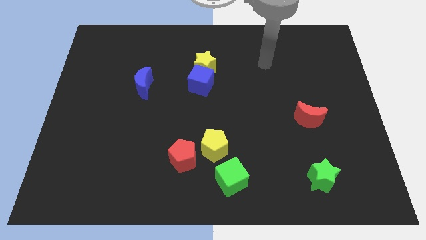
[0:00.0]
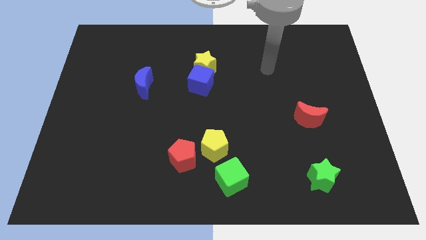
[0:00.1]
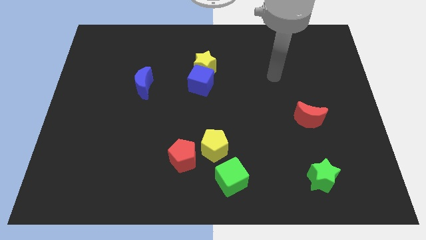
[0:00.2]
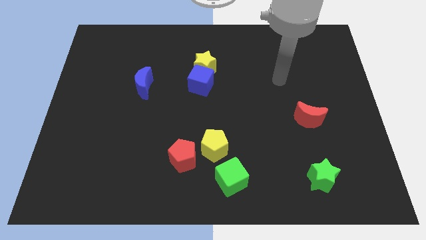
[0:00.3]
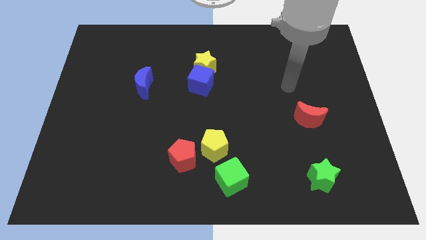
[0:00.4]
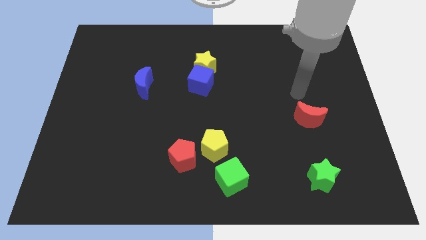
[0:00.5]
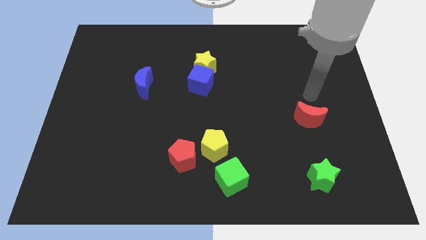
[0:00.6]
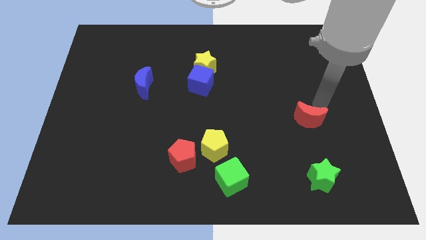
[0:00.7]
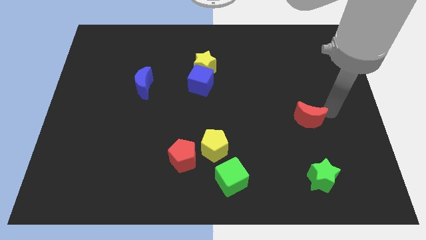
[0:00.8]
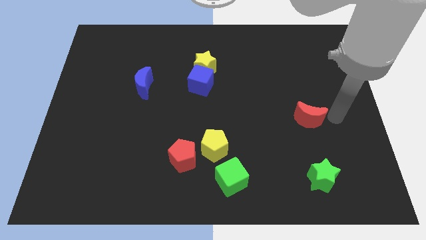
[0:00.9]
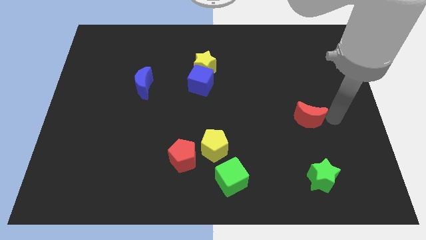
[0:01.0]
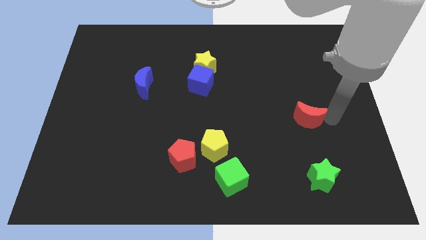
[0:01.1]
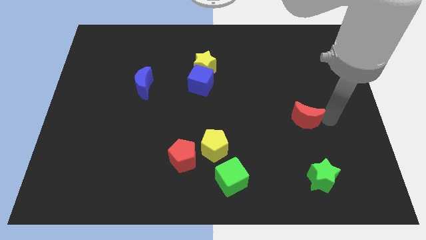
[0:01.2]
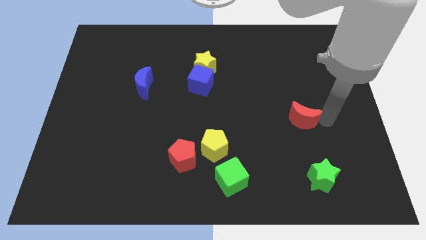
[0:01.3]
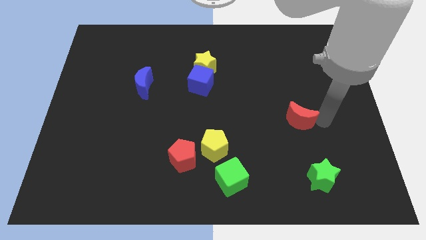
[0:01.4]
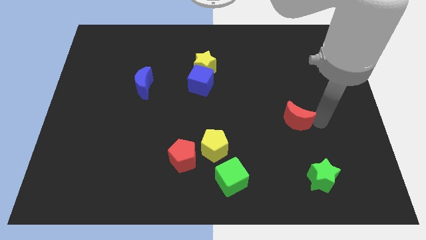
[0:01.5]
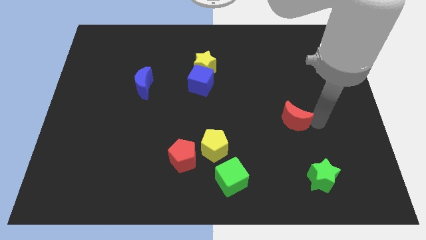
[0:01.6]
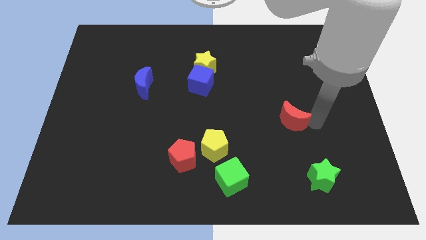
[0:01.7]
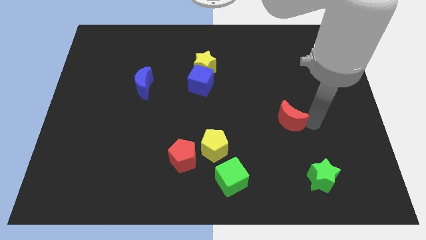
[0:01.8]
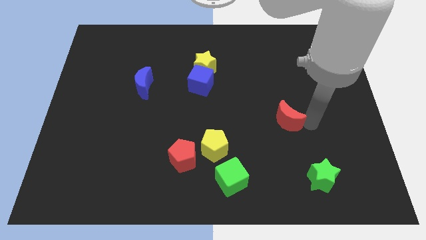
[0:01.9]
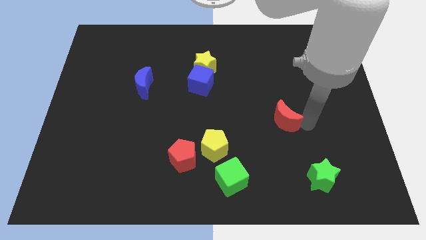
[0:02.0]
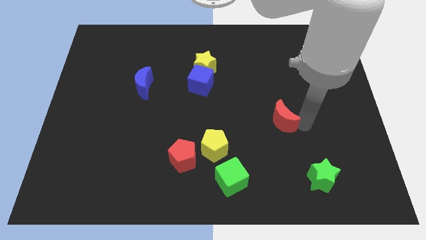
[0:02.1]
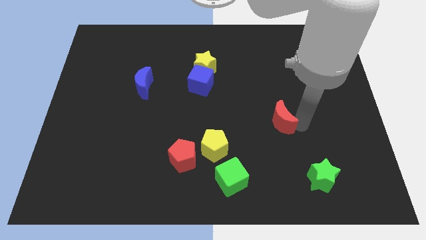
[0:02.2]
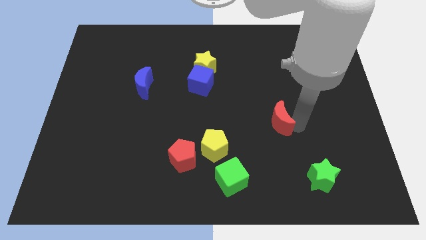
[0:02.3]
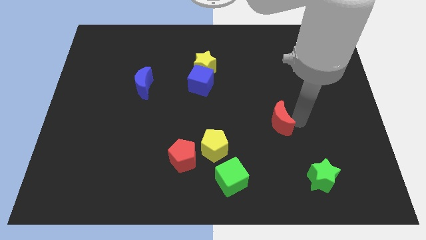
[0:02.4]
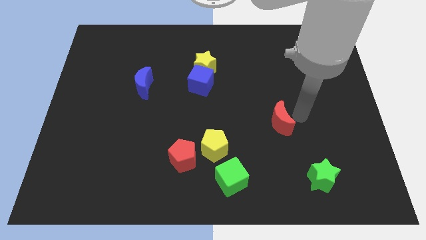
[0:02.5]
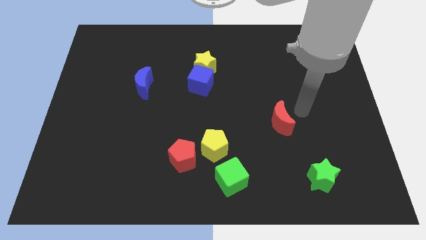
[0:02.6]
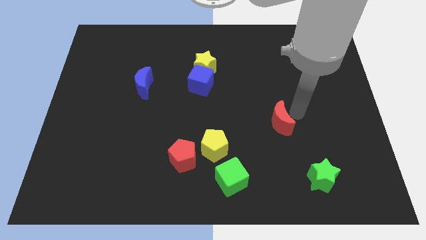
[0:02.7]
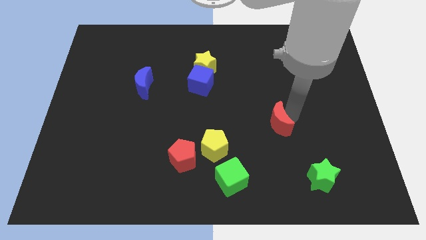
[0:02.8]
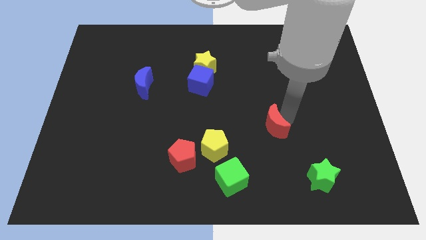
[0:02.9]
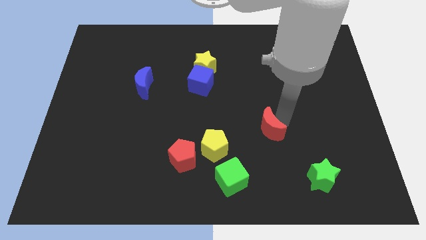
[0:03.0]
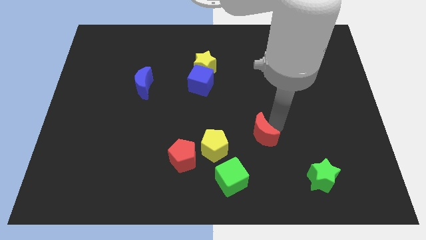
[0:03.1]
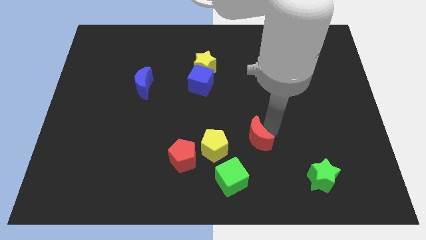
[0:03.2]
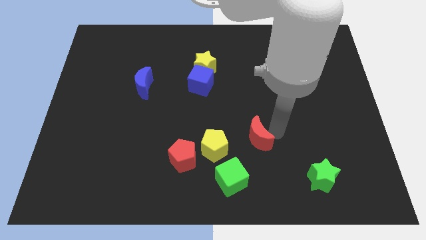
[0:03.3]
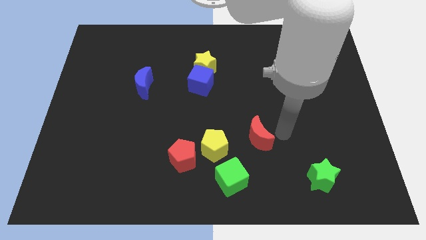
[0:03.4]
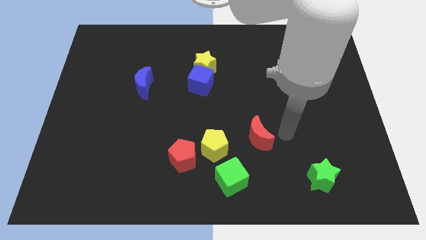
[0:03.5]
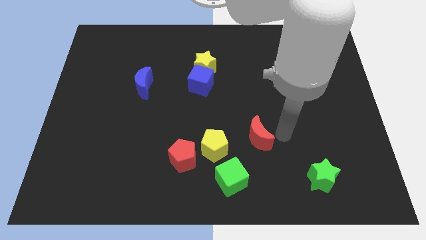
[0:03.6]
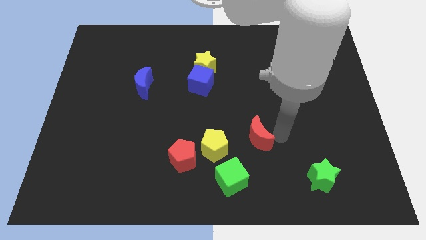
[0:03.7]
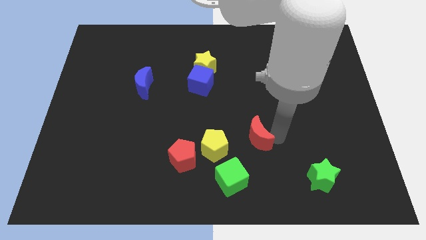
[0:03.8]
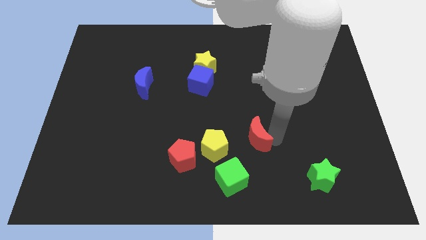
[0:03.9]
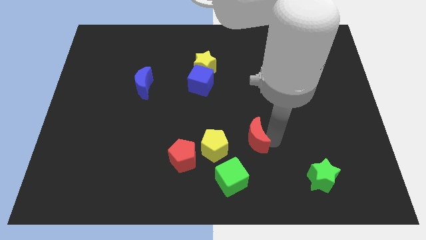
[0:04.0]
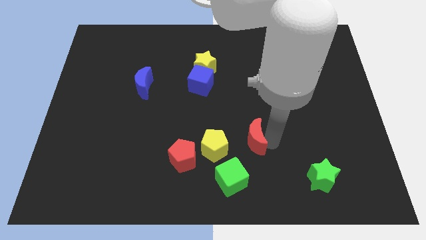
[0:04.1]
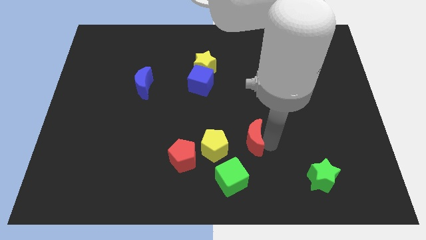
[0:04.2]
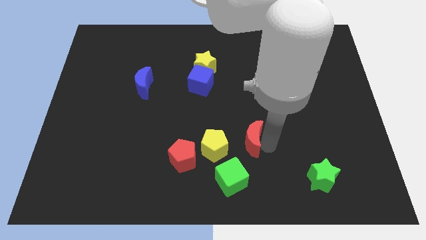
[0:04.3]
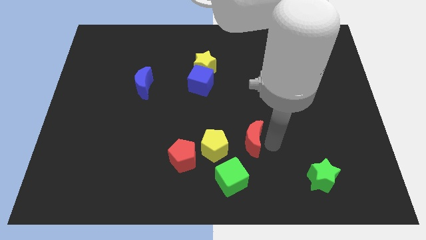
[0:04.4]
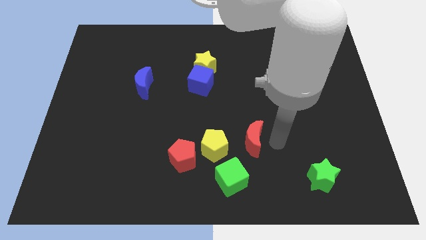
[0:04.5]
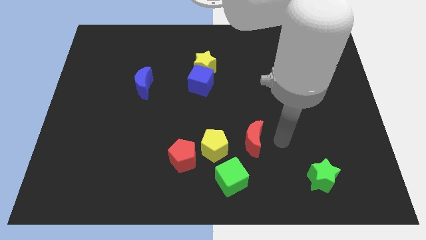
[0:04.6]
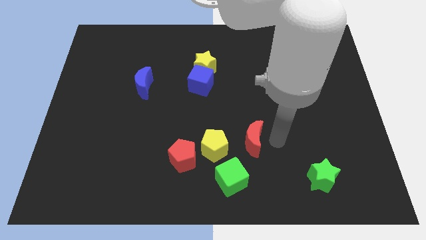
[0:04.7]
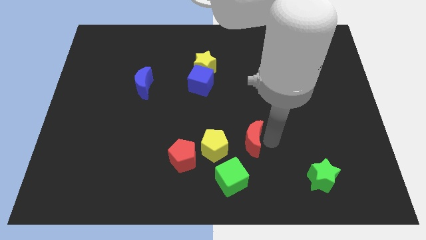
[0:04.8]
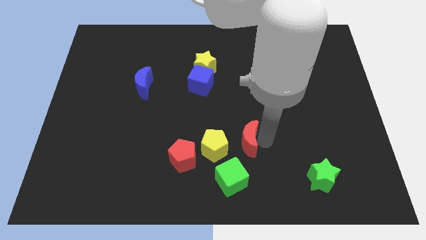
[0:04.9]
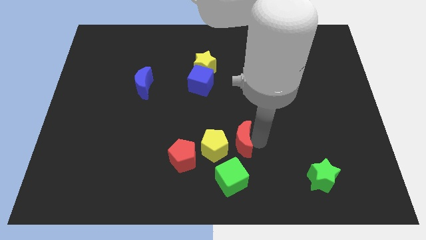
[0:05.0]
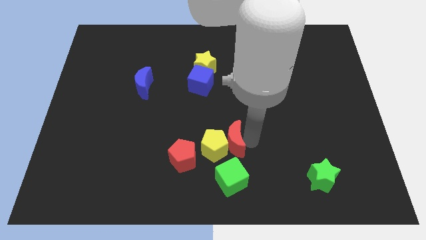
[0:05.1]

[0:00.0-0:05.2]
push the red moon next to the yellow pentagon

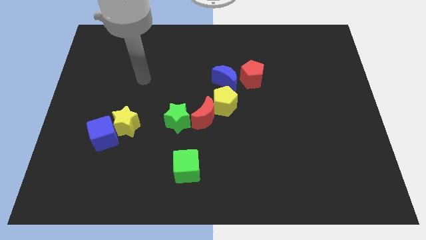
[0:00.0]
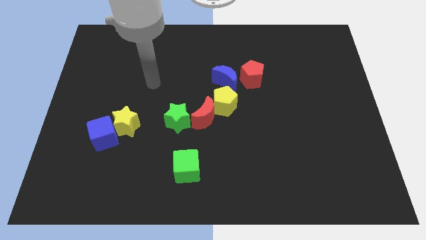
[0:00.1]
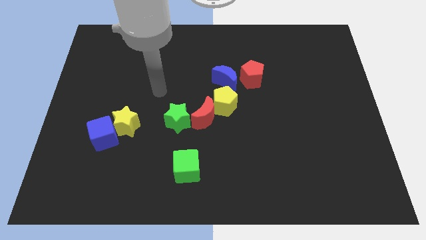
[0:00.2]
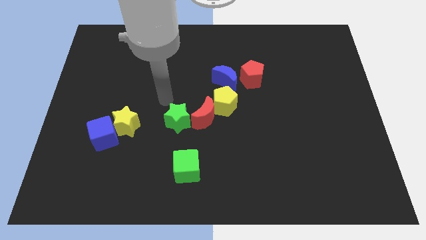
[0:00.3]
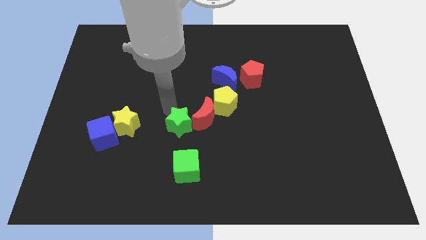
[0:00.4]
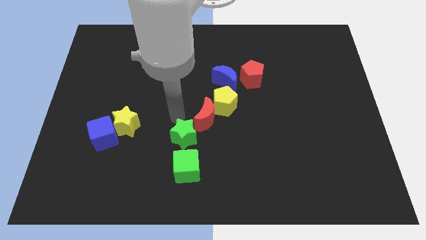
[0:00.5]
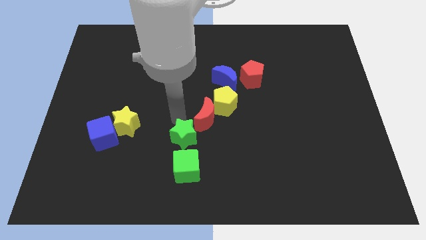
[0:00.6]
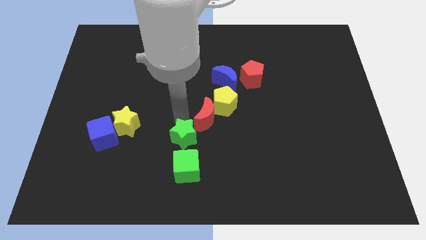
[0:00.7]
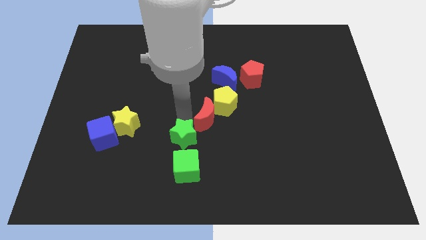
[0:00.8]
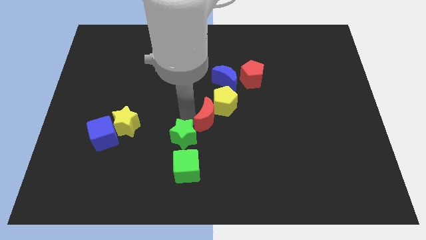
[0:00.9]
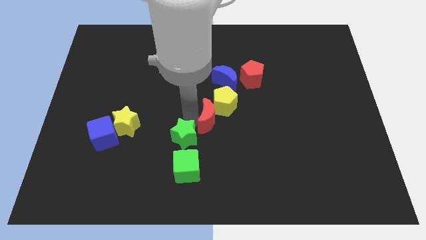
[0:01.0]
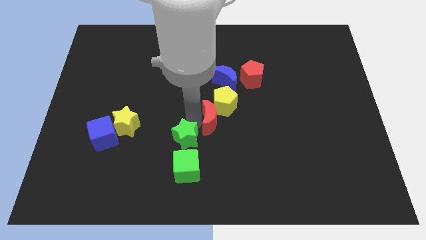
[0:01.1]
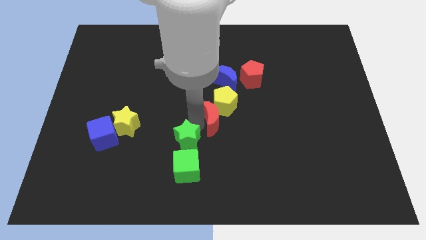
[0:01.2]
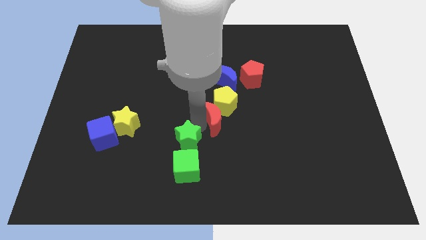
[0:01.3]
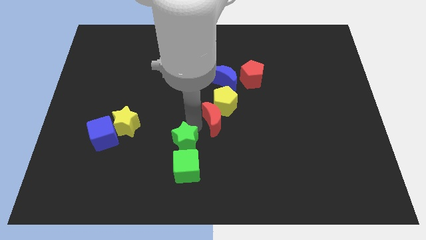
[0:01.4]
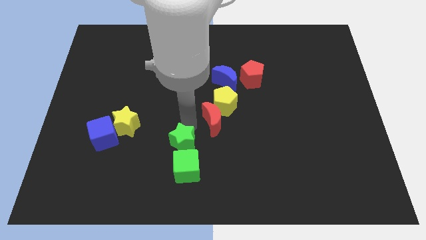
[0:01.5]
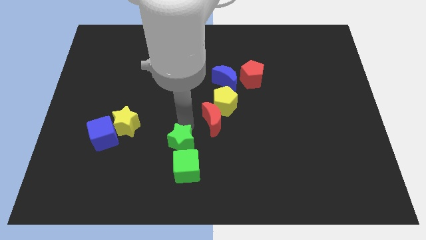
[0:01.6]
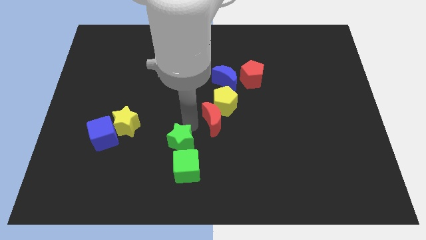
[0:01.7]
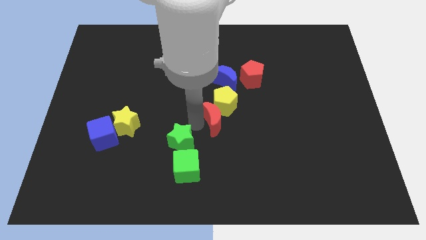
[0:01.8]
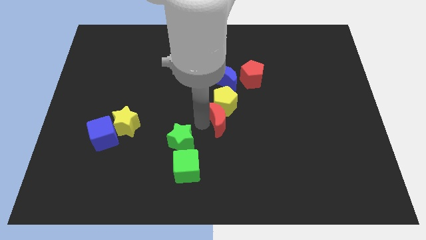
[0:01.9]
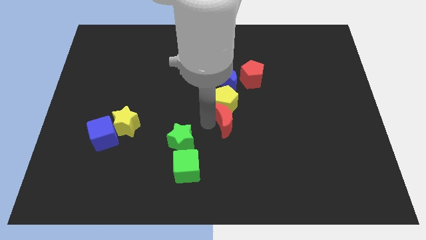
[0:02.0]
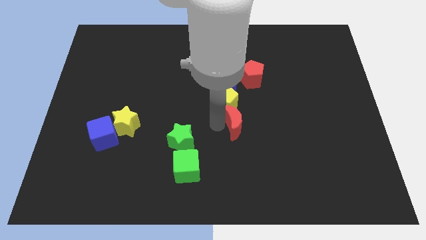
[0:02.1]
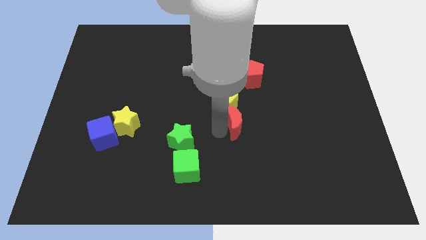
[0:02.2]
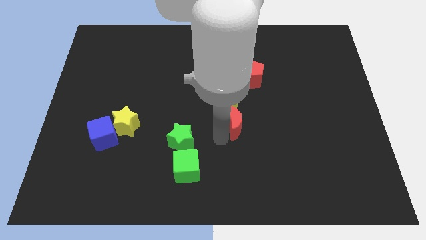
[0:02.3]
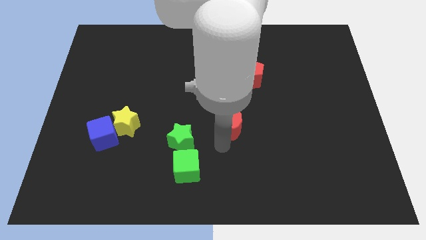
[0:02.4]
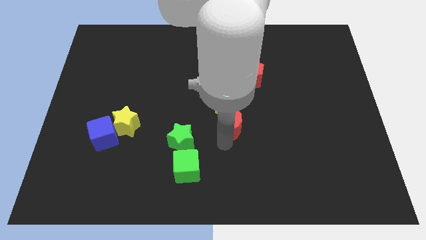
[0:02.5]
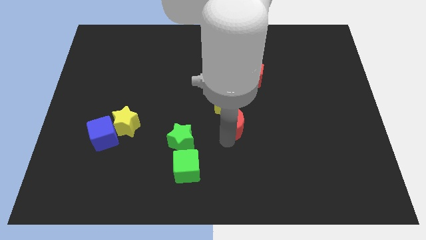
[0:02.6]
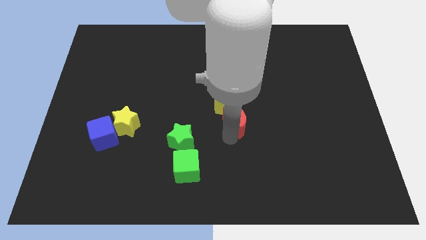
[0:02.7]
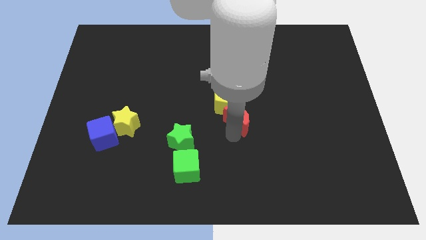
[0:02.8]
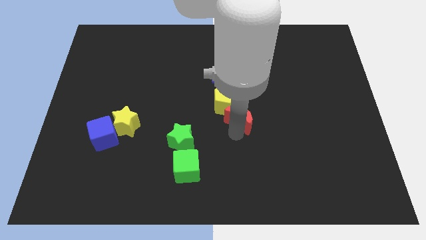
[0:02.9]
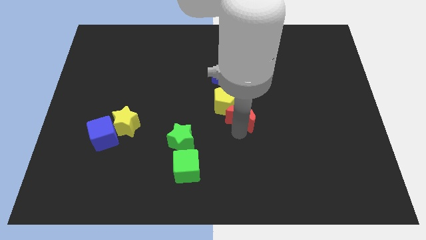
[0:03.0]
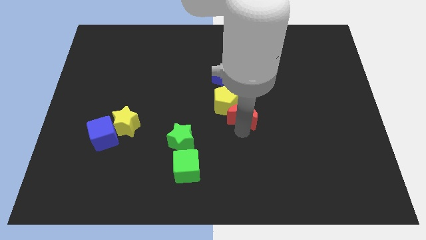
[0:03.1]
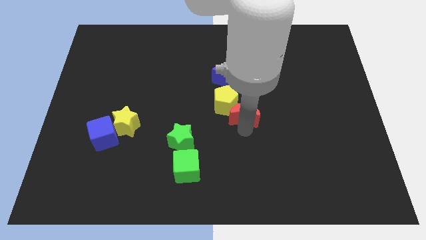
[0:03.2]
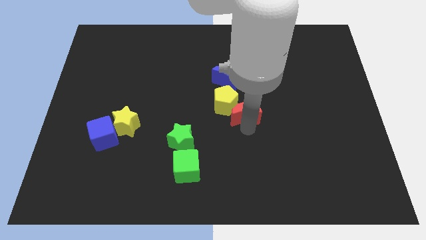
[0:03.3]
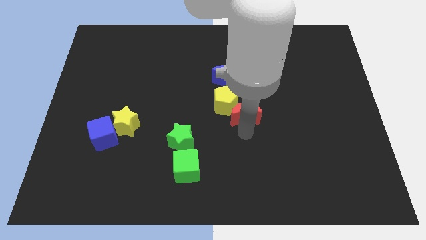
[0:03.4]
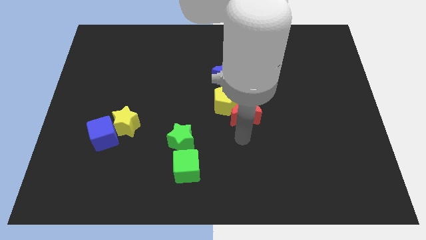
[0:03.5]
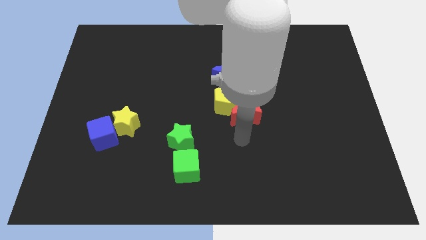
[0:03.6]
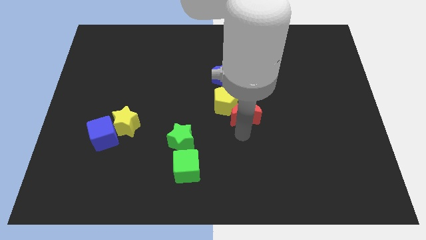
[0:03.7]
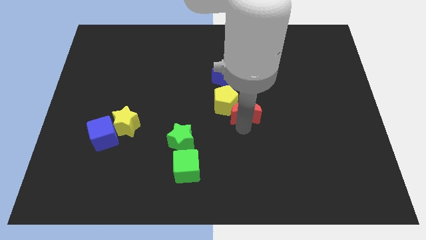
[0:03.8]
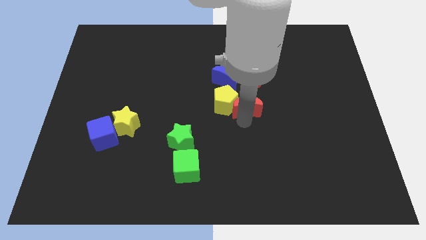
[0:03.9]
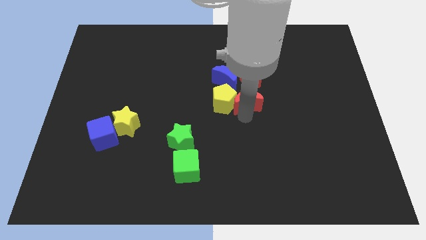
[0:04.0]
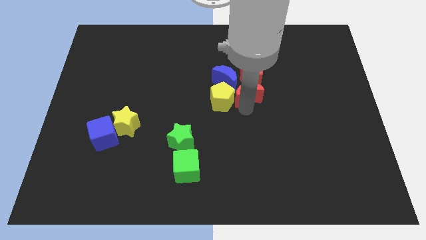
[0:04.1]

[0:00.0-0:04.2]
push the red moon to the red pentagon
